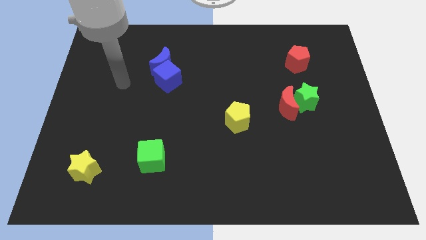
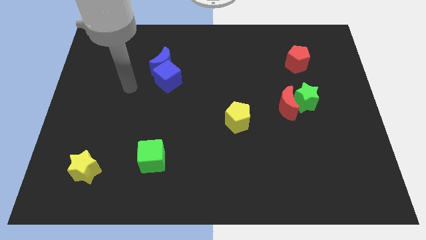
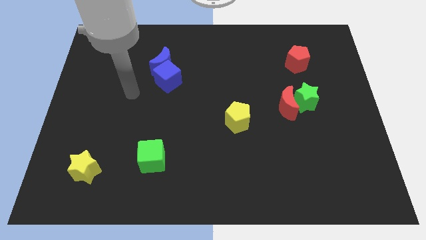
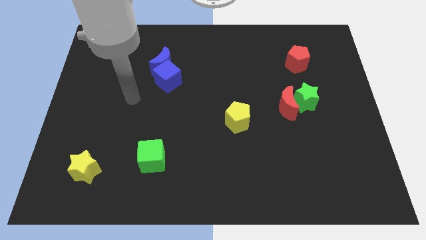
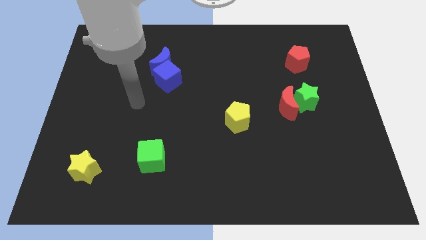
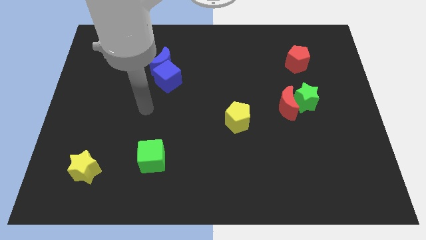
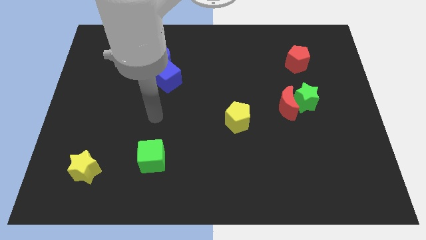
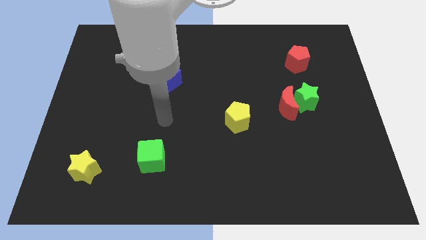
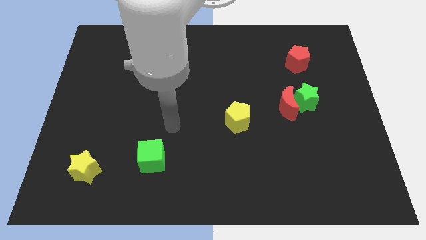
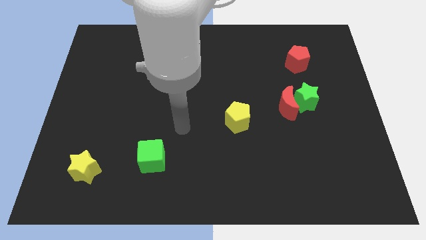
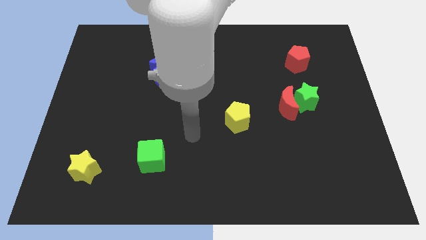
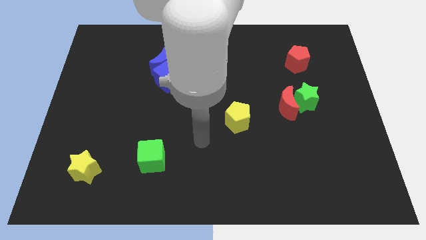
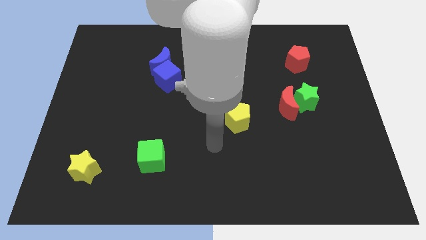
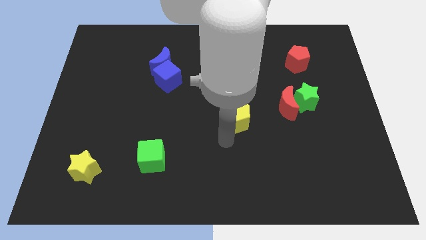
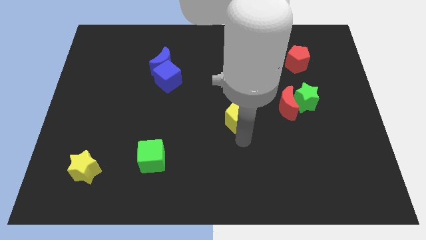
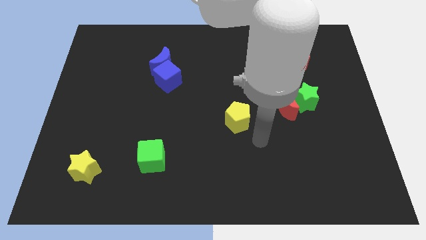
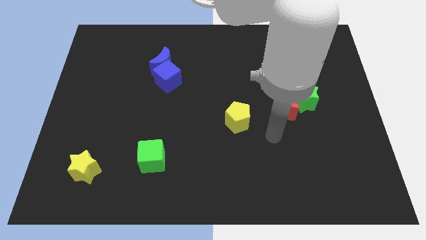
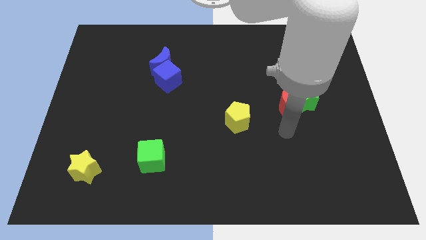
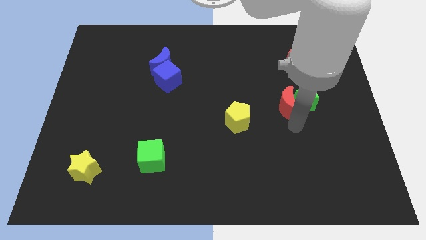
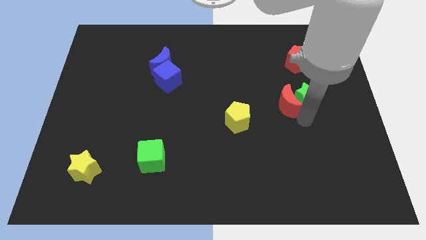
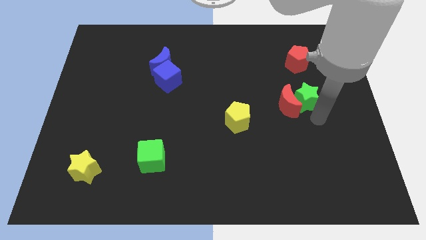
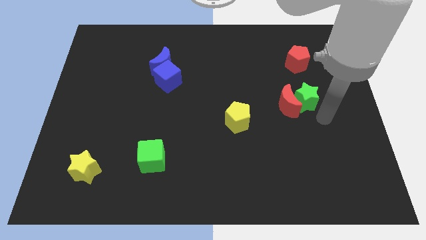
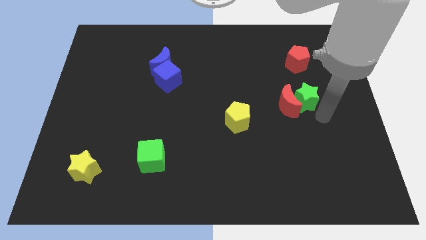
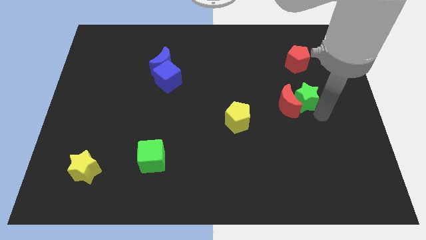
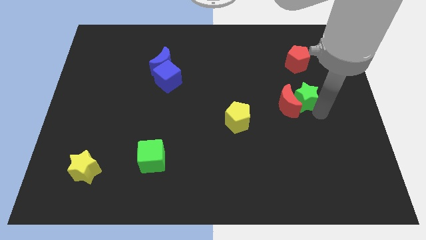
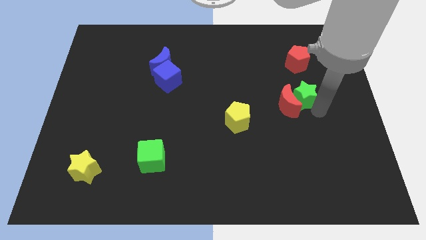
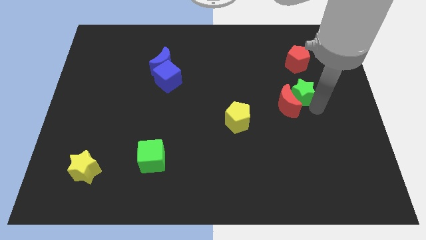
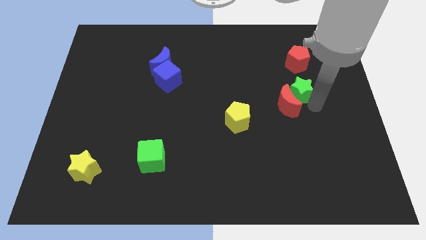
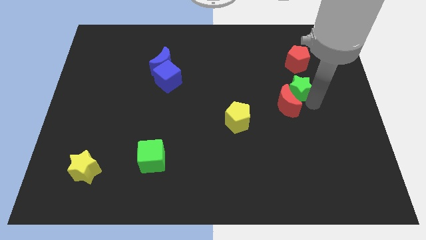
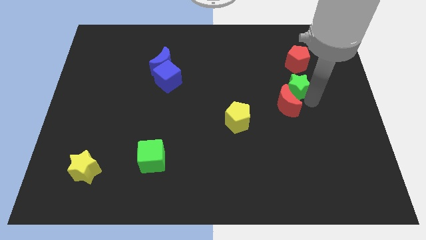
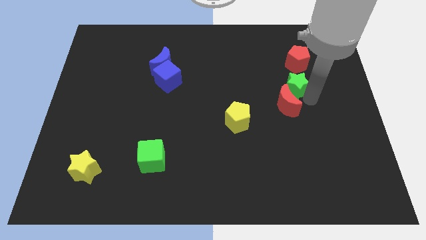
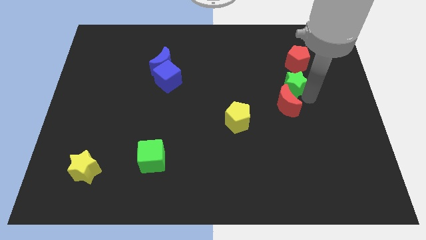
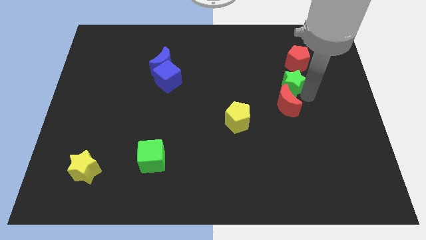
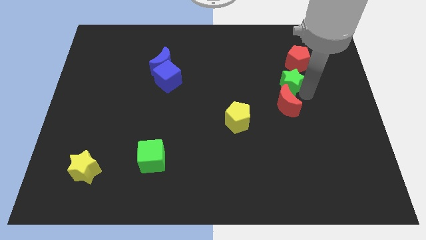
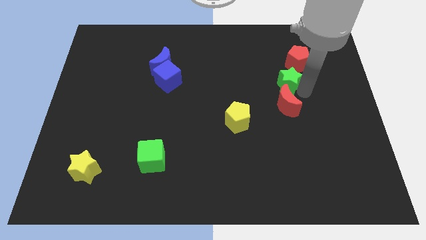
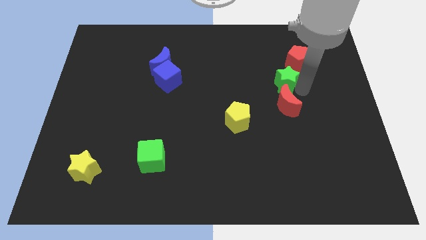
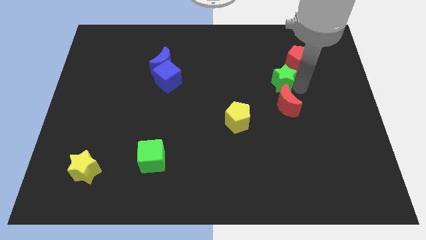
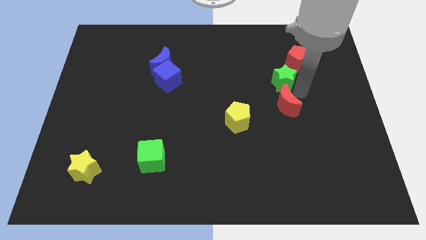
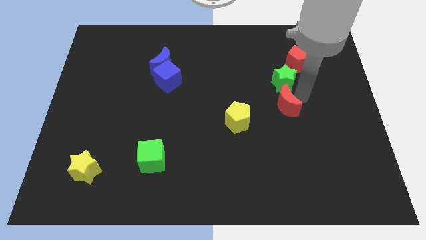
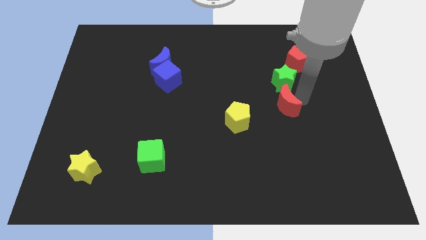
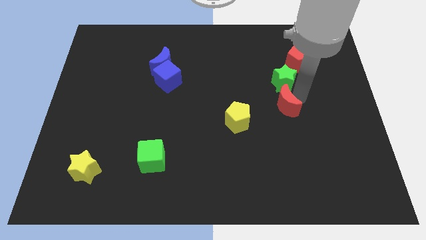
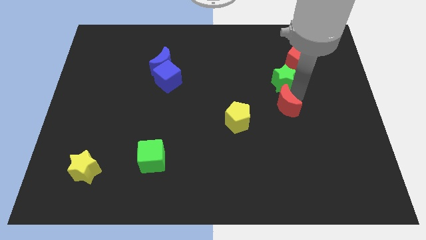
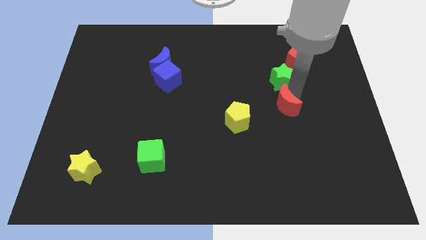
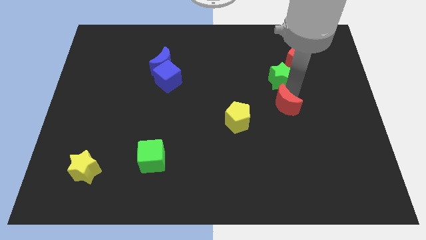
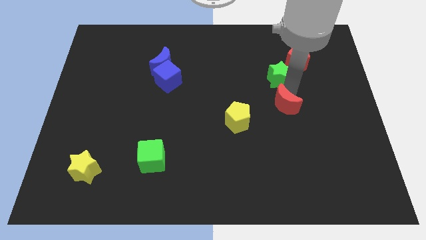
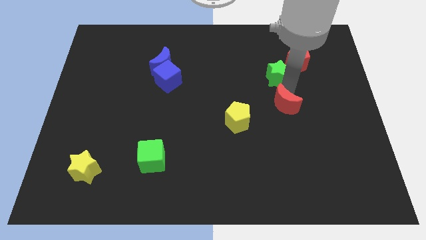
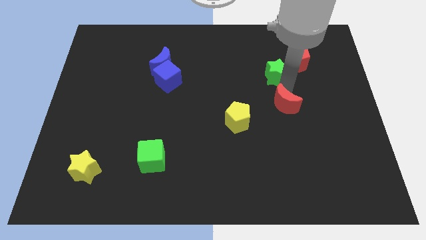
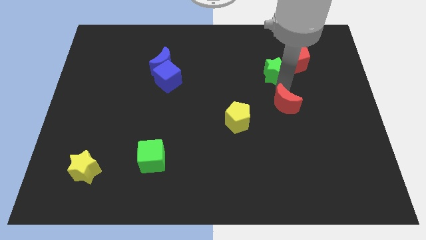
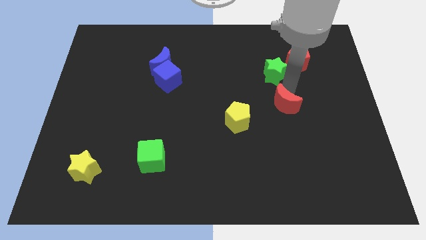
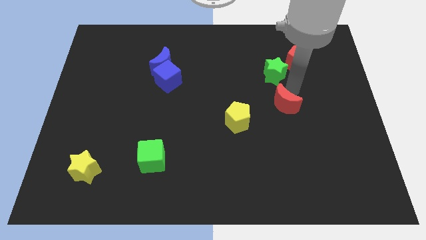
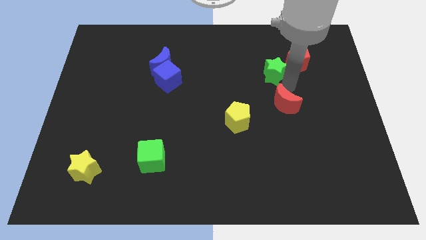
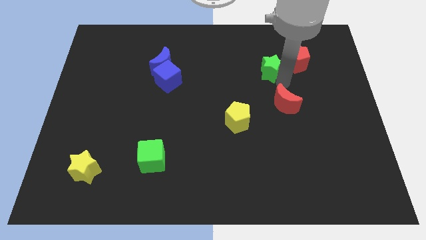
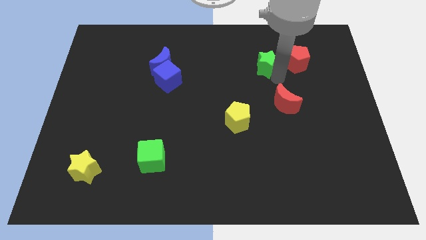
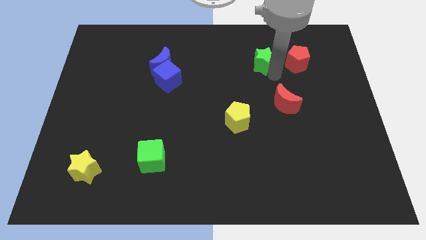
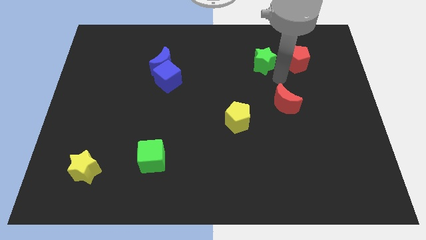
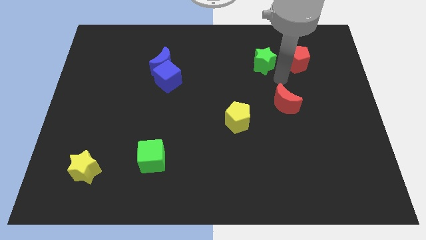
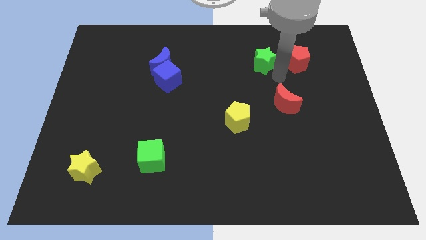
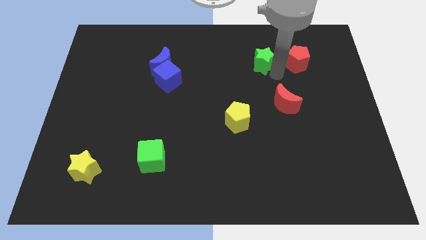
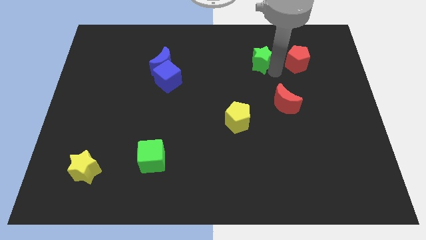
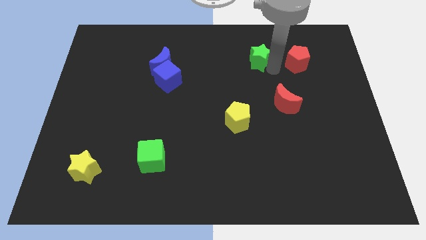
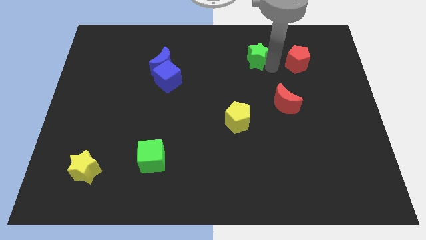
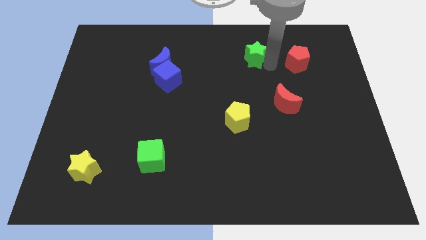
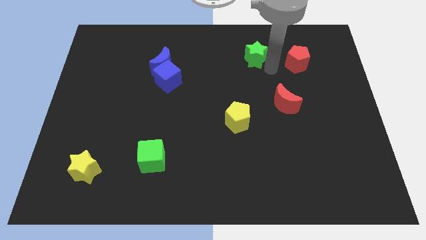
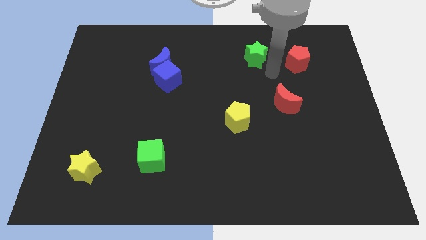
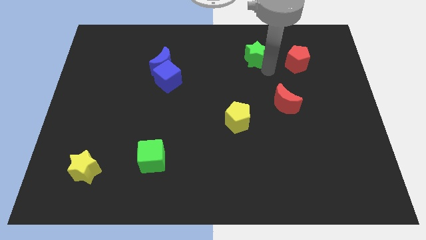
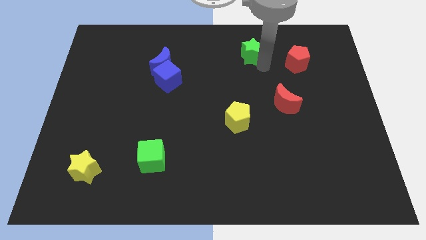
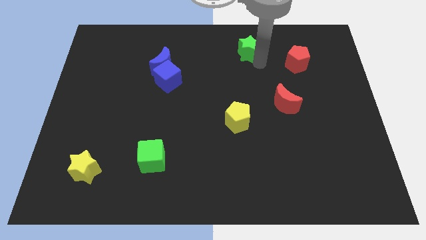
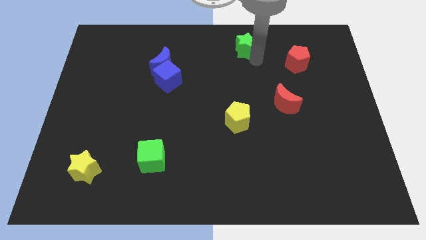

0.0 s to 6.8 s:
slide the green star to the top side
